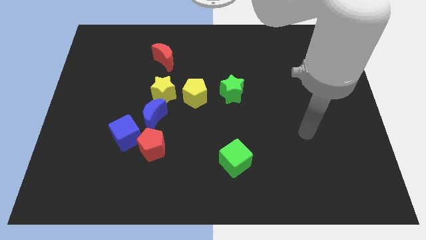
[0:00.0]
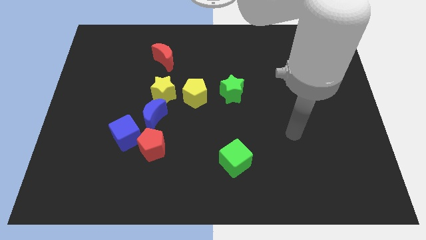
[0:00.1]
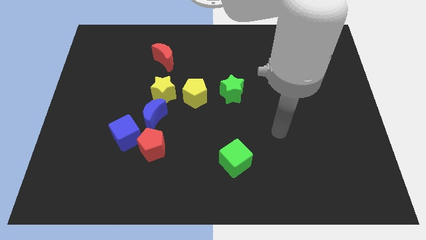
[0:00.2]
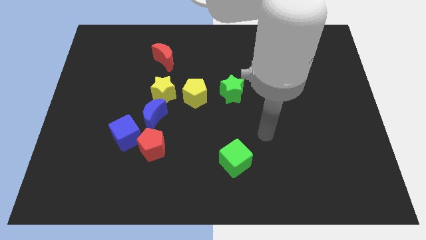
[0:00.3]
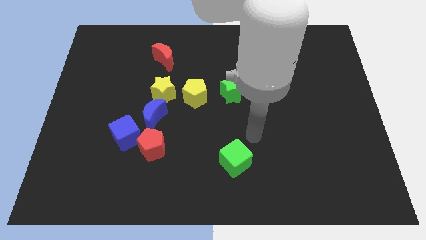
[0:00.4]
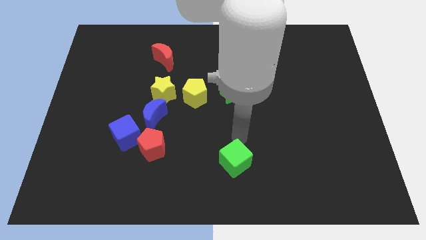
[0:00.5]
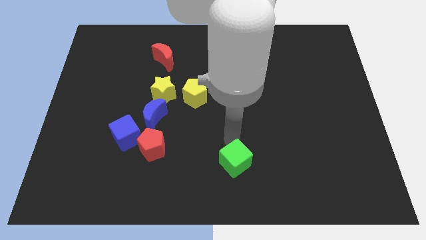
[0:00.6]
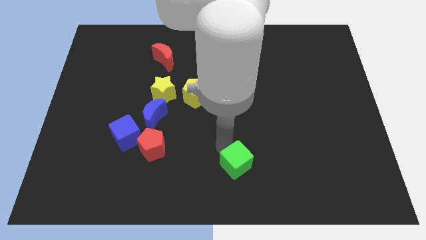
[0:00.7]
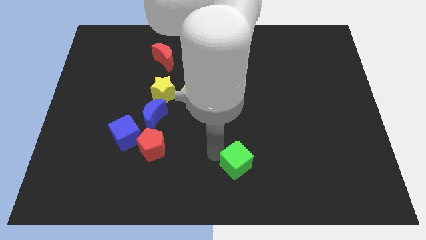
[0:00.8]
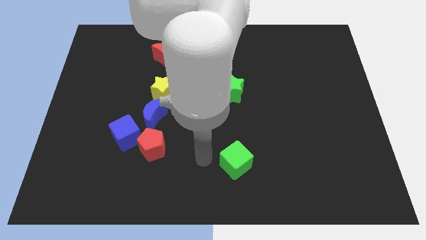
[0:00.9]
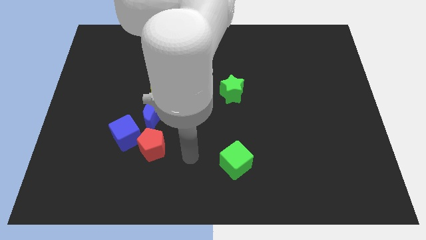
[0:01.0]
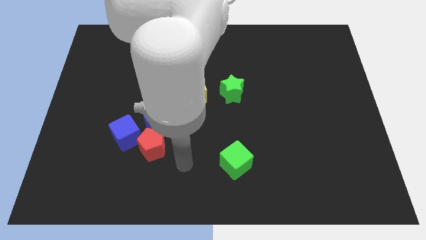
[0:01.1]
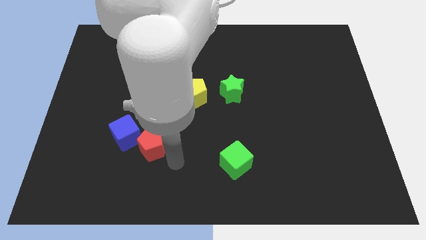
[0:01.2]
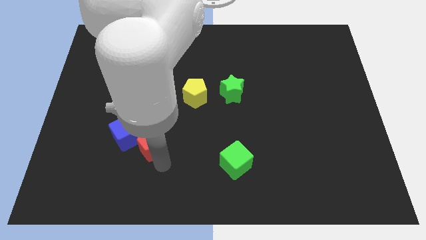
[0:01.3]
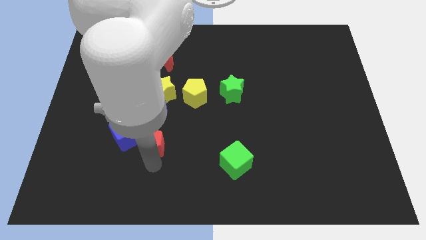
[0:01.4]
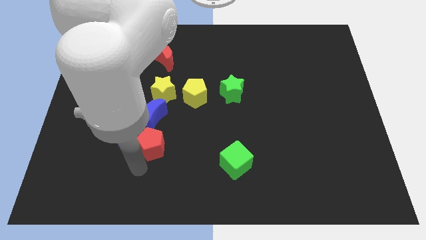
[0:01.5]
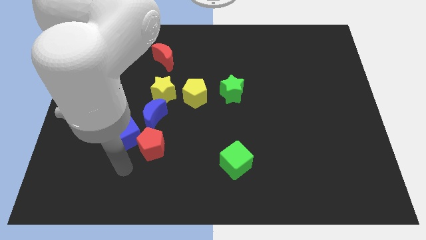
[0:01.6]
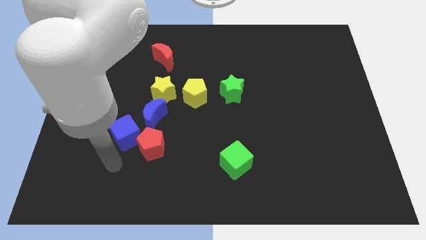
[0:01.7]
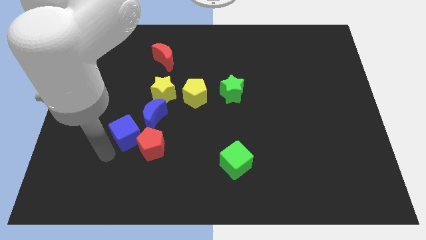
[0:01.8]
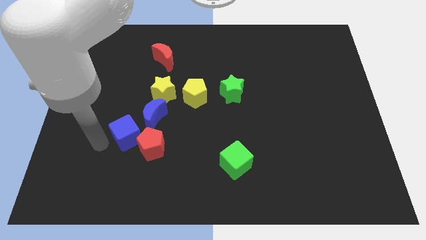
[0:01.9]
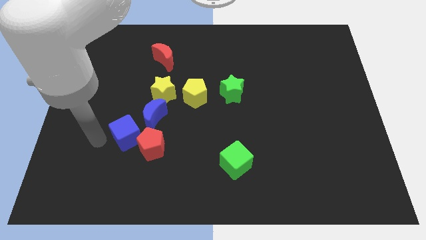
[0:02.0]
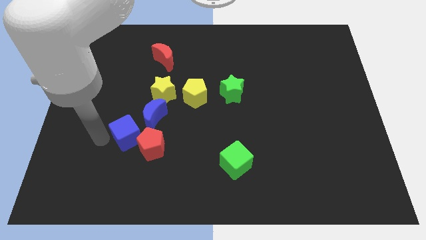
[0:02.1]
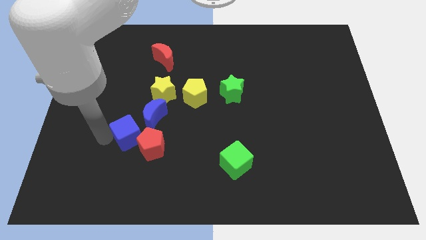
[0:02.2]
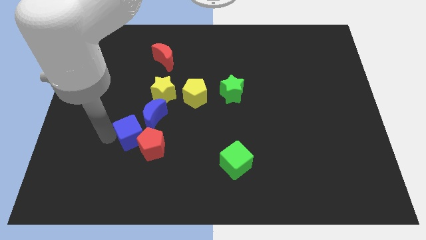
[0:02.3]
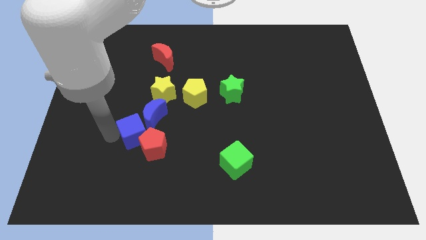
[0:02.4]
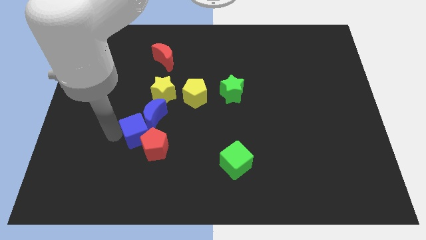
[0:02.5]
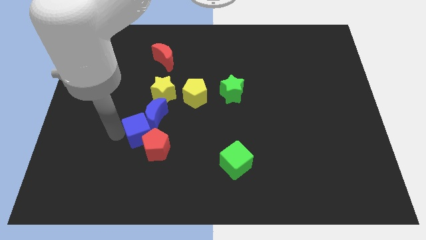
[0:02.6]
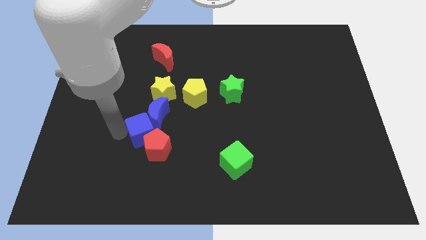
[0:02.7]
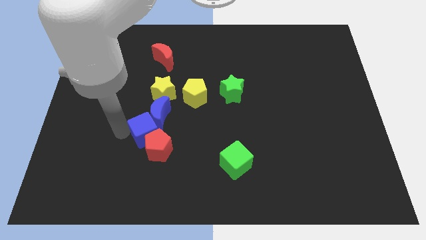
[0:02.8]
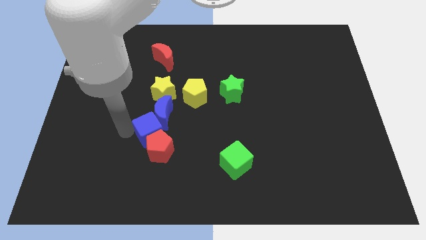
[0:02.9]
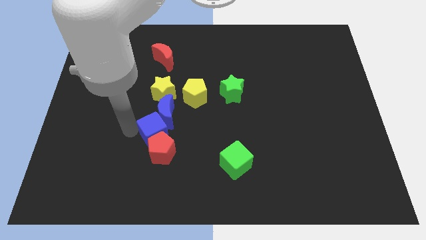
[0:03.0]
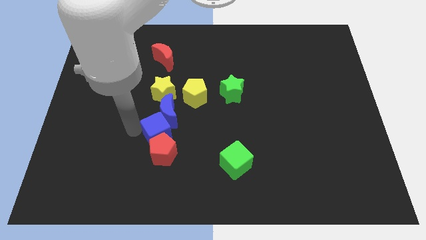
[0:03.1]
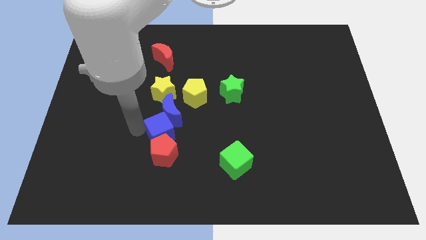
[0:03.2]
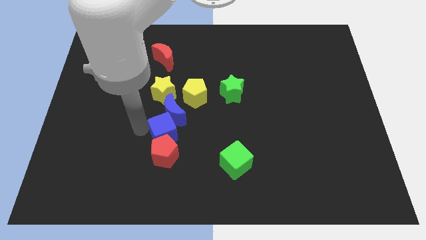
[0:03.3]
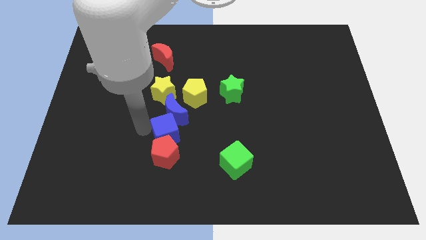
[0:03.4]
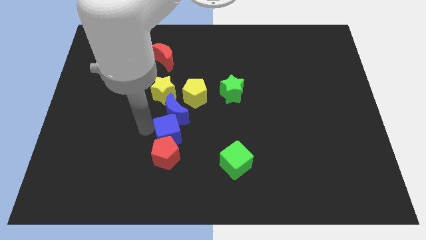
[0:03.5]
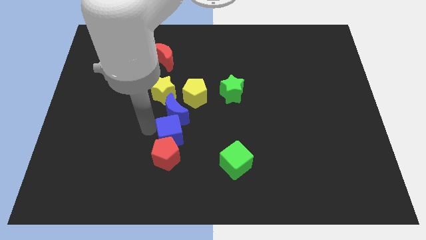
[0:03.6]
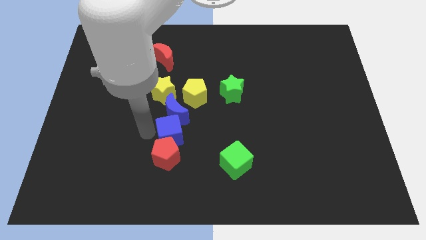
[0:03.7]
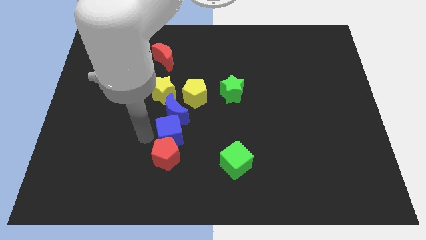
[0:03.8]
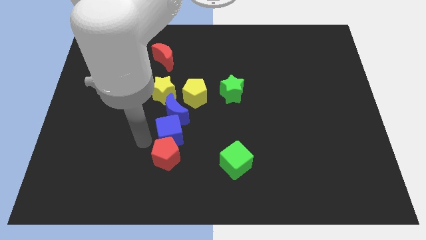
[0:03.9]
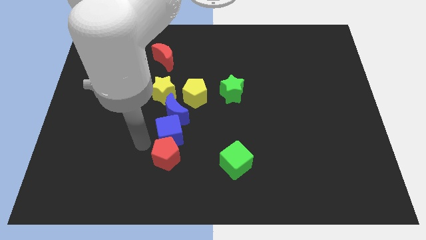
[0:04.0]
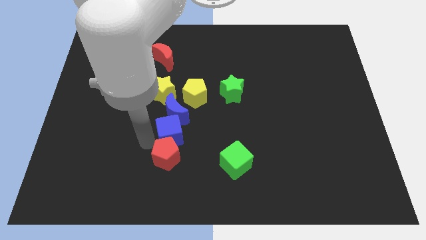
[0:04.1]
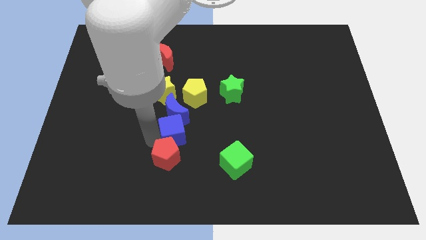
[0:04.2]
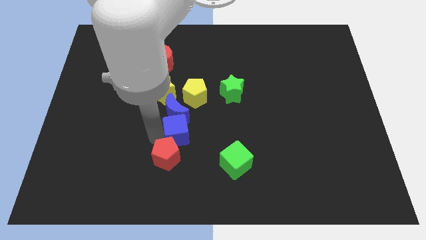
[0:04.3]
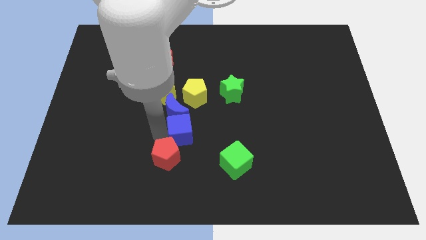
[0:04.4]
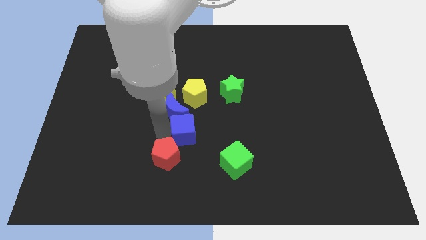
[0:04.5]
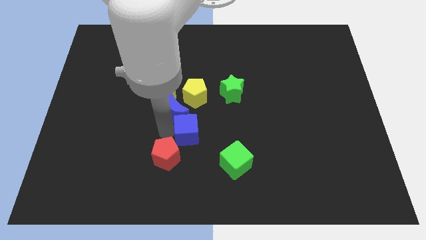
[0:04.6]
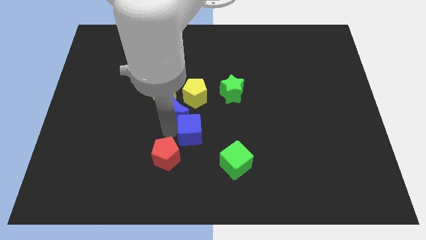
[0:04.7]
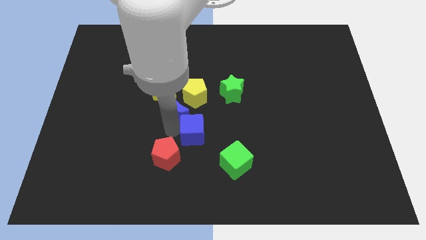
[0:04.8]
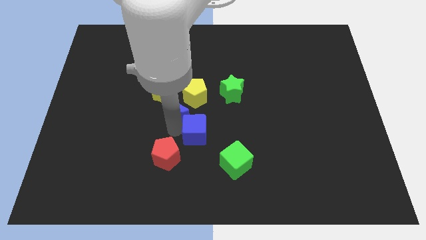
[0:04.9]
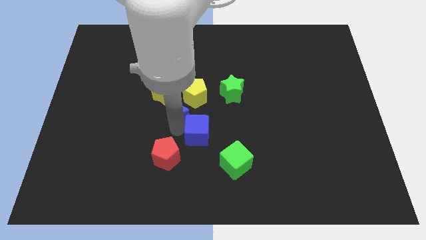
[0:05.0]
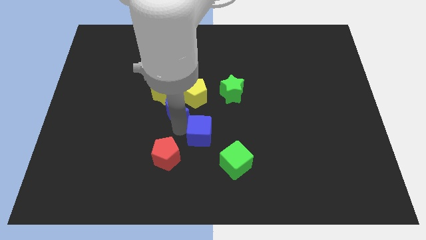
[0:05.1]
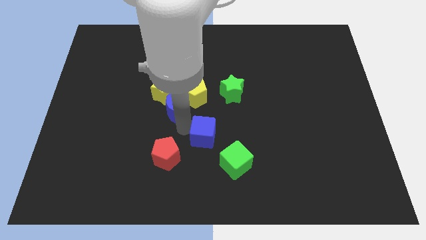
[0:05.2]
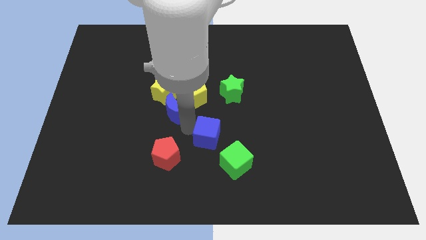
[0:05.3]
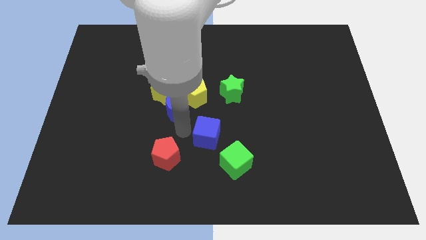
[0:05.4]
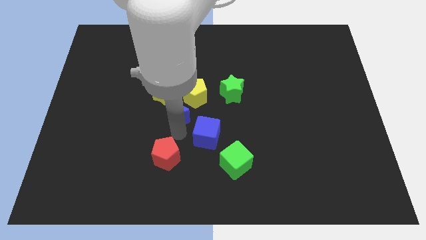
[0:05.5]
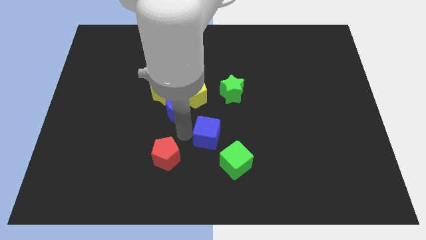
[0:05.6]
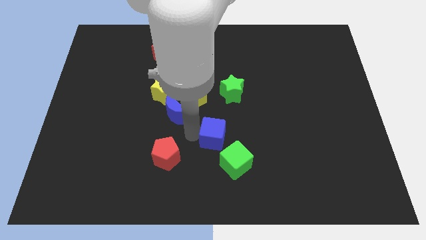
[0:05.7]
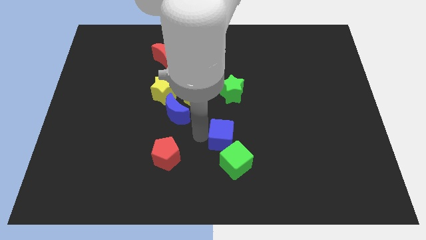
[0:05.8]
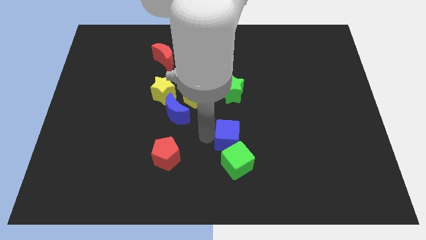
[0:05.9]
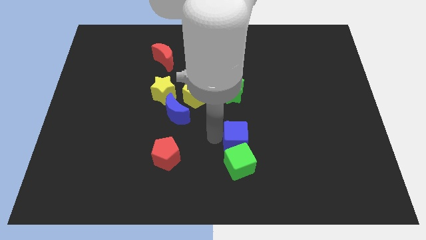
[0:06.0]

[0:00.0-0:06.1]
push the blue cube to the top right side of the green cube
